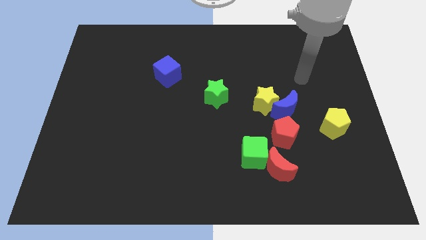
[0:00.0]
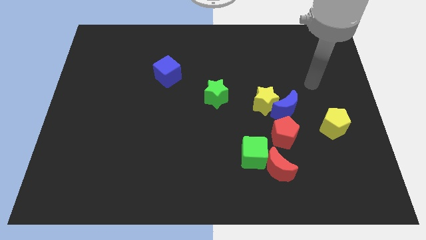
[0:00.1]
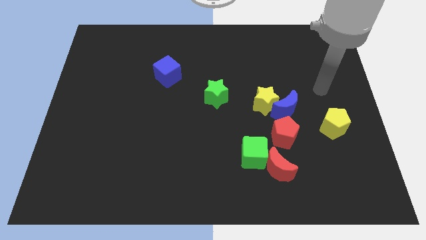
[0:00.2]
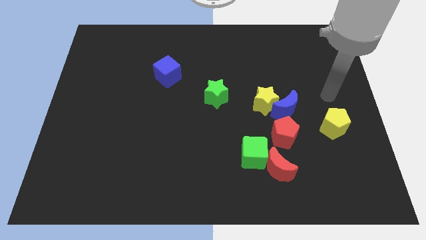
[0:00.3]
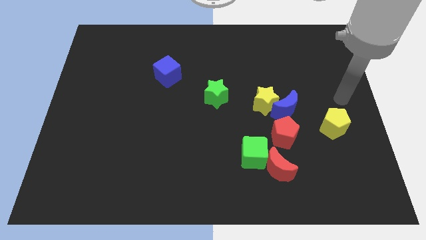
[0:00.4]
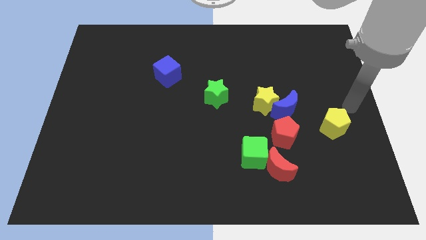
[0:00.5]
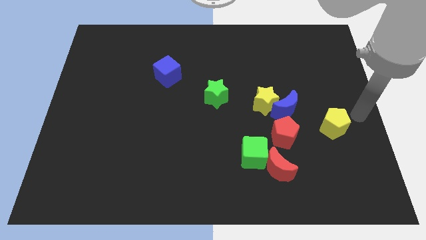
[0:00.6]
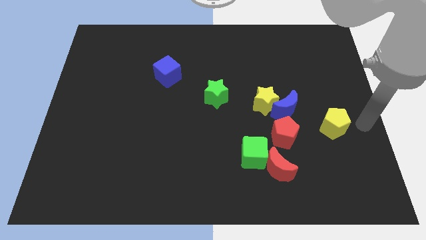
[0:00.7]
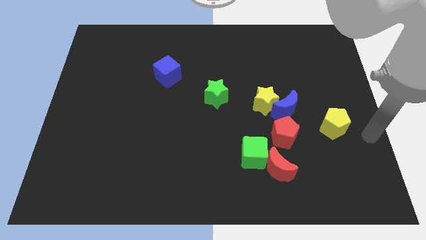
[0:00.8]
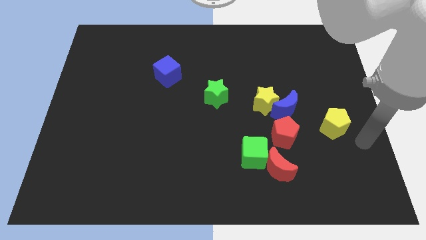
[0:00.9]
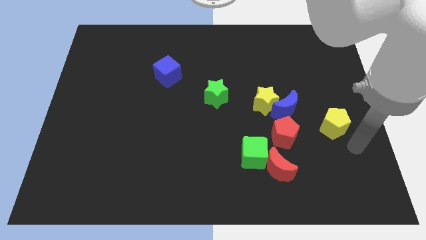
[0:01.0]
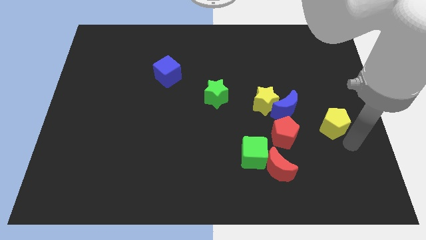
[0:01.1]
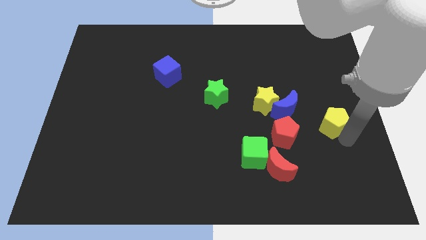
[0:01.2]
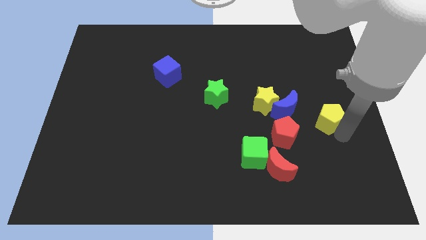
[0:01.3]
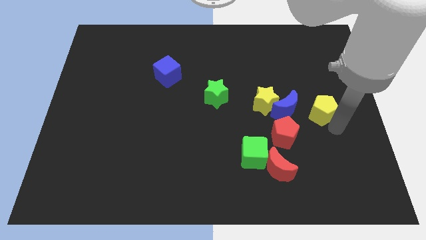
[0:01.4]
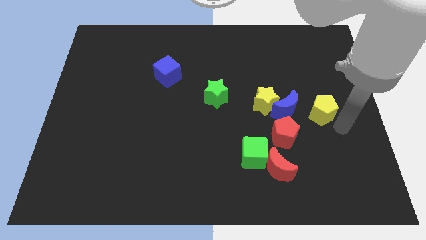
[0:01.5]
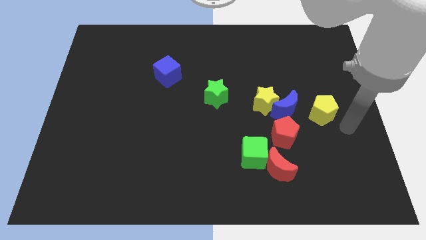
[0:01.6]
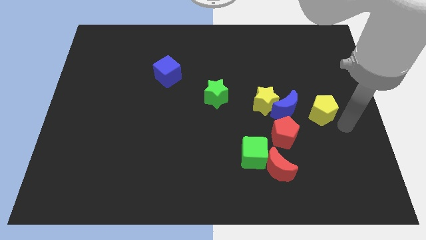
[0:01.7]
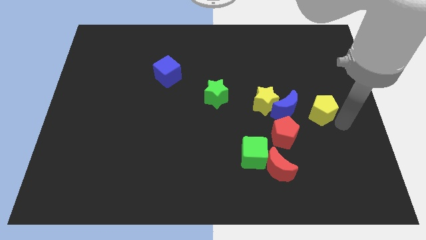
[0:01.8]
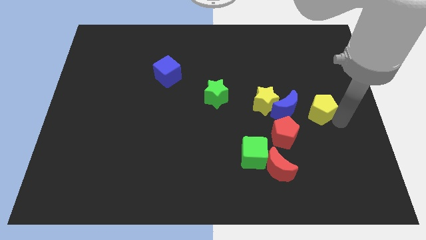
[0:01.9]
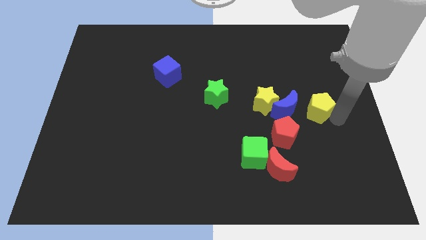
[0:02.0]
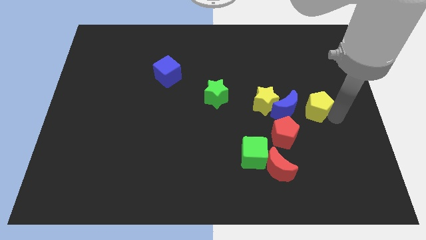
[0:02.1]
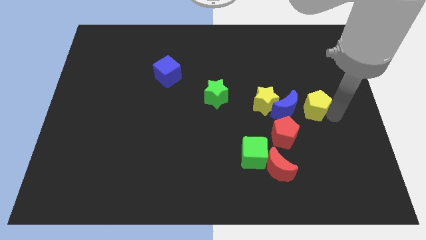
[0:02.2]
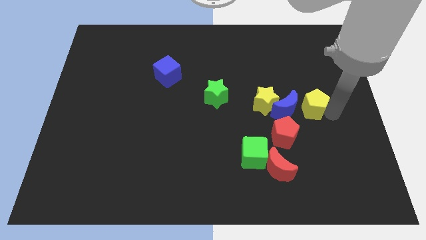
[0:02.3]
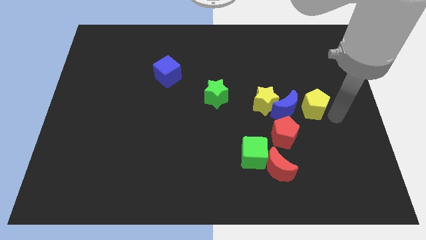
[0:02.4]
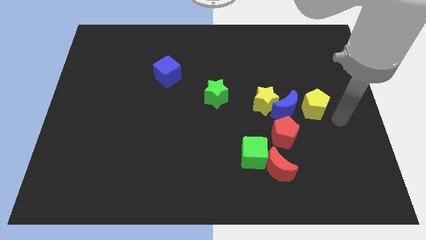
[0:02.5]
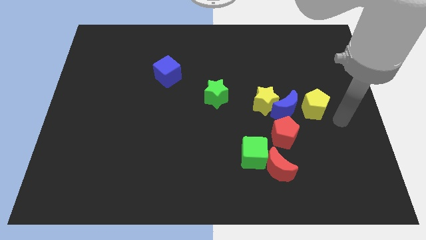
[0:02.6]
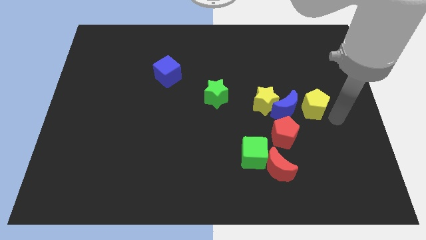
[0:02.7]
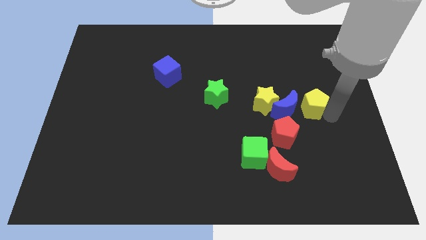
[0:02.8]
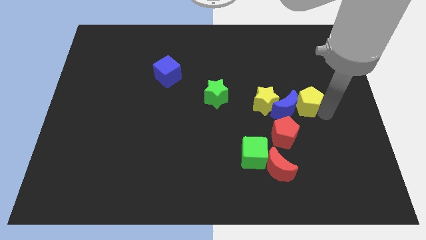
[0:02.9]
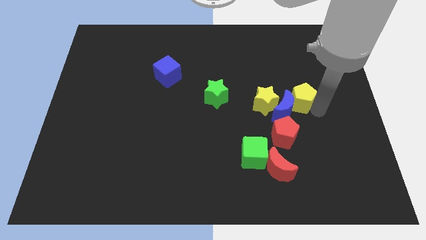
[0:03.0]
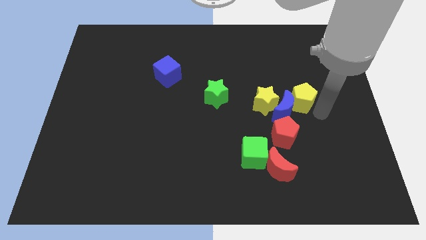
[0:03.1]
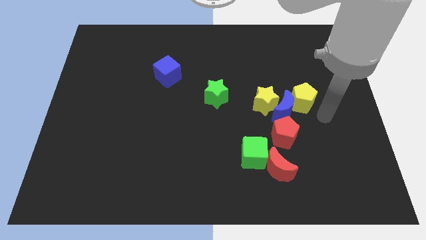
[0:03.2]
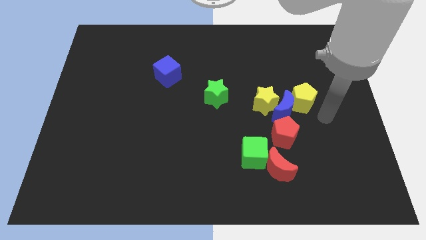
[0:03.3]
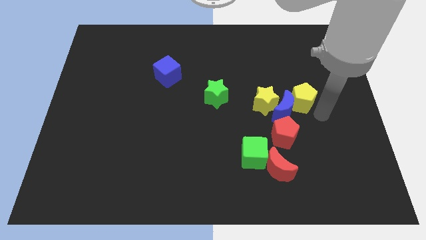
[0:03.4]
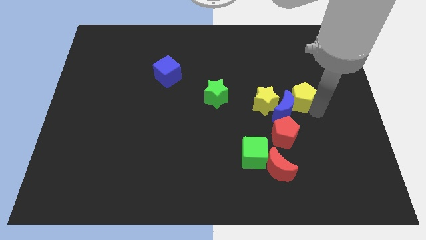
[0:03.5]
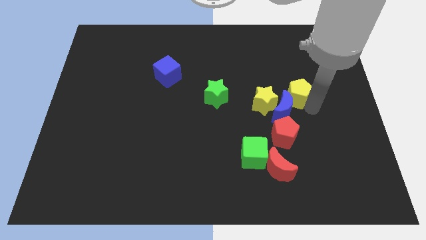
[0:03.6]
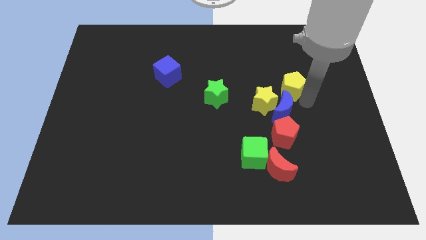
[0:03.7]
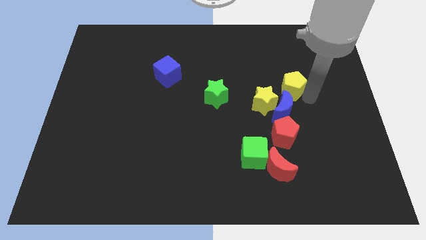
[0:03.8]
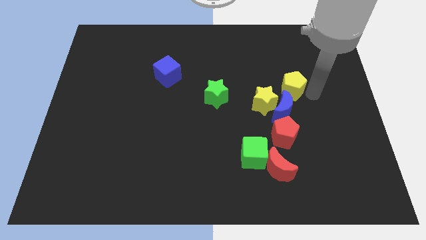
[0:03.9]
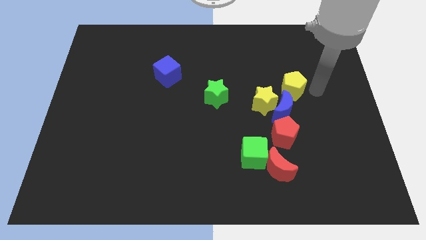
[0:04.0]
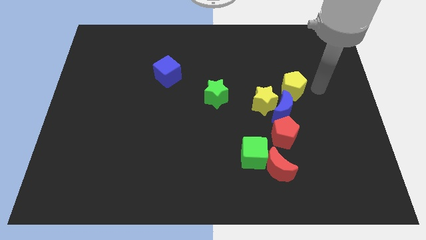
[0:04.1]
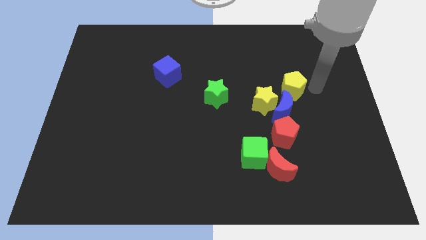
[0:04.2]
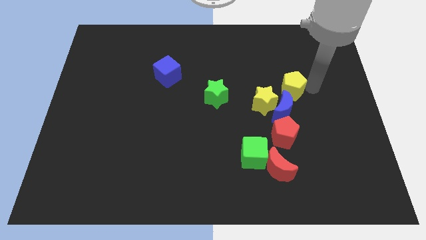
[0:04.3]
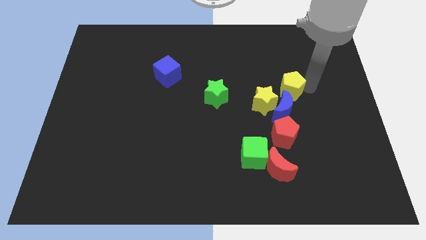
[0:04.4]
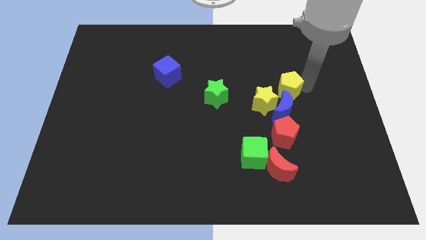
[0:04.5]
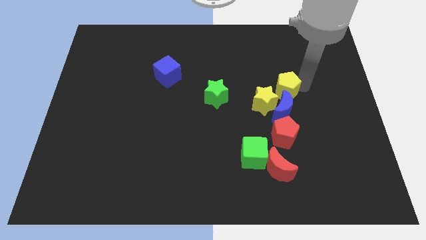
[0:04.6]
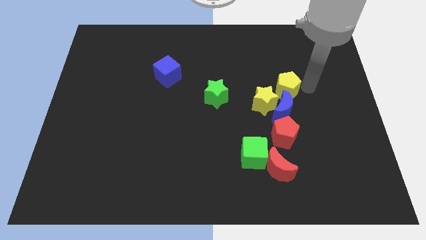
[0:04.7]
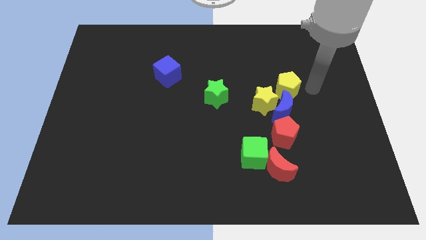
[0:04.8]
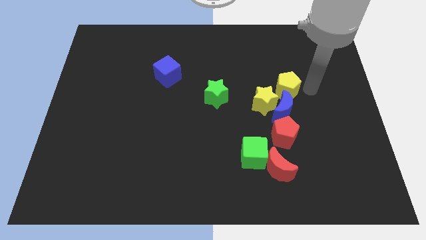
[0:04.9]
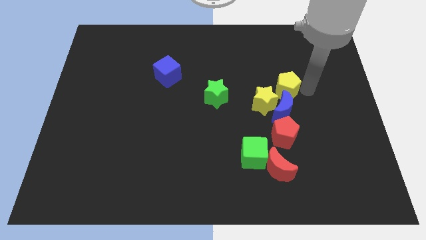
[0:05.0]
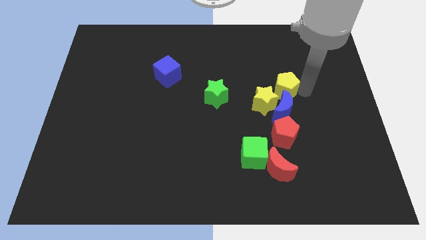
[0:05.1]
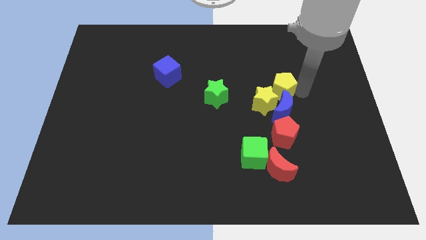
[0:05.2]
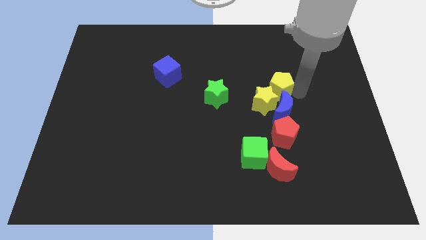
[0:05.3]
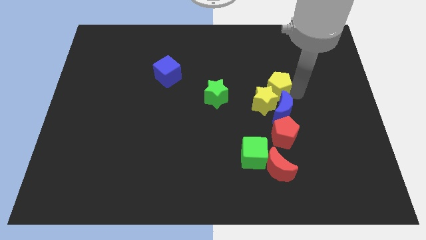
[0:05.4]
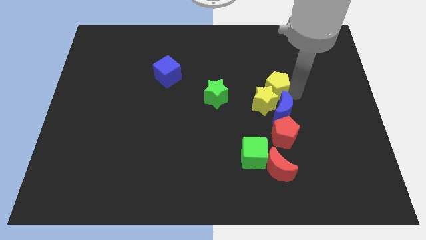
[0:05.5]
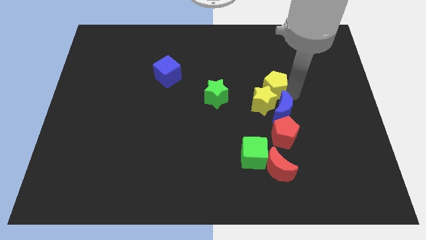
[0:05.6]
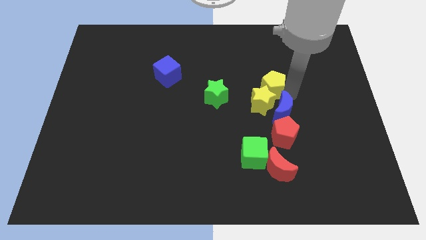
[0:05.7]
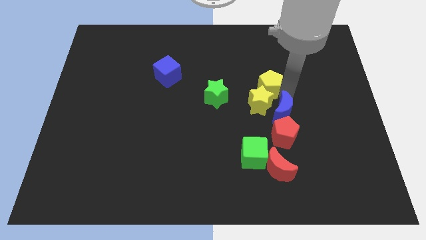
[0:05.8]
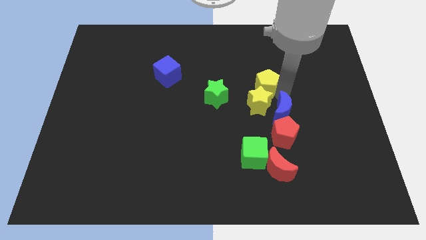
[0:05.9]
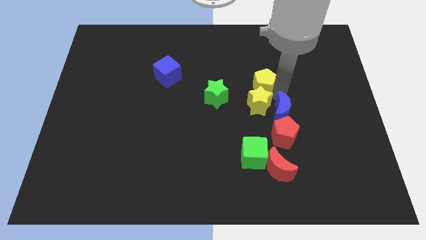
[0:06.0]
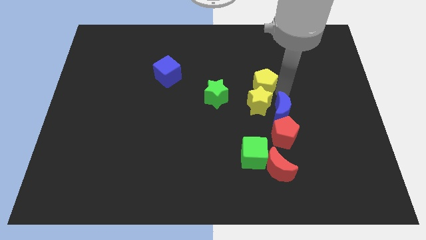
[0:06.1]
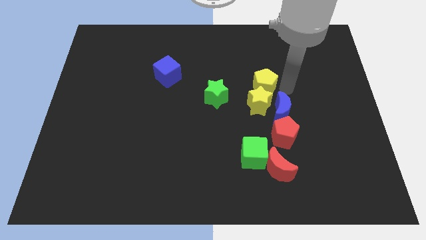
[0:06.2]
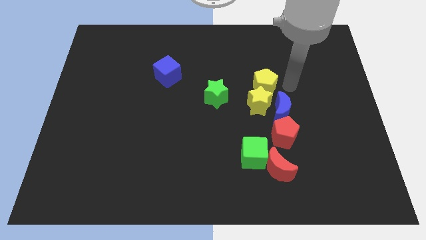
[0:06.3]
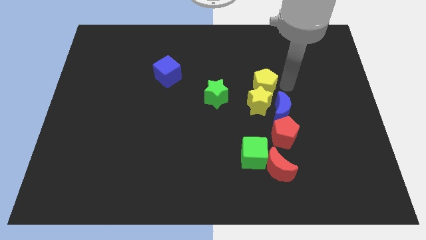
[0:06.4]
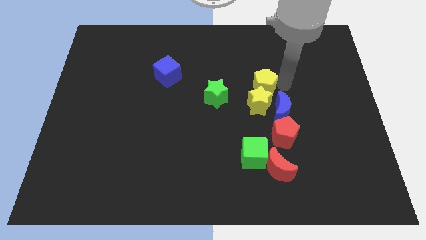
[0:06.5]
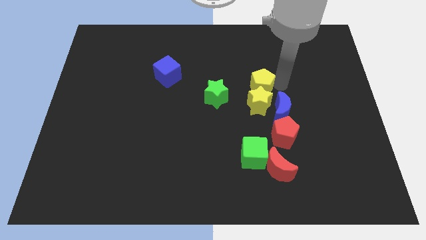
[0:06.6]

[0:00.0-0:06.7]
push the yellow pentagon to the top left side of the yellow star

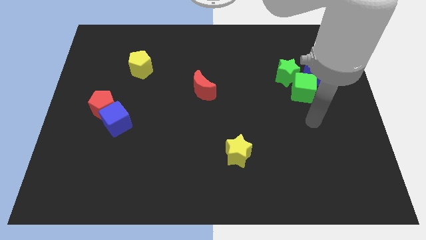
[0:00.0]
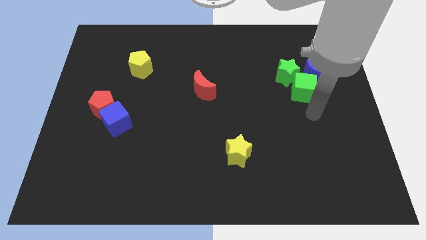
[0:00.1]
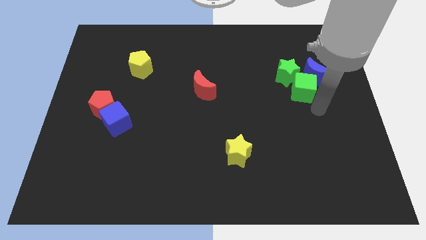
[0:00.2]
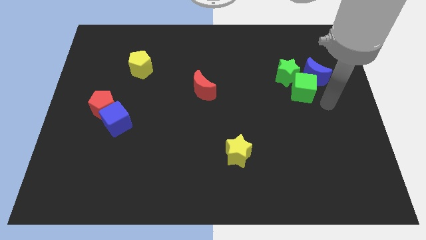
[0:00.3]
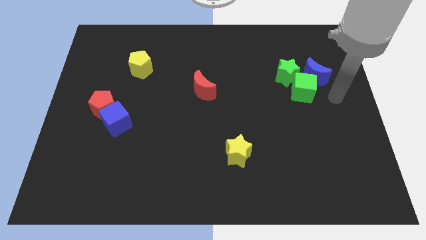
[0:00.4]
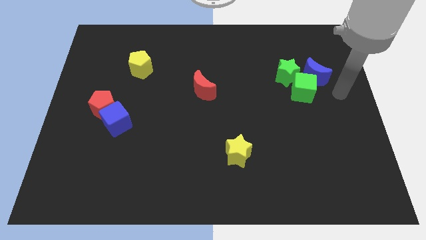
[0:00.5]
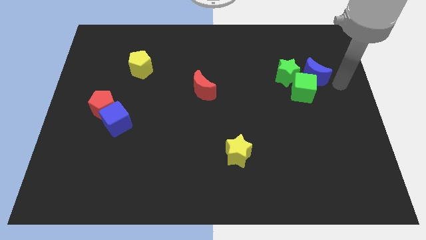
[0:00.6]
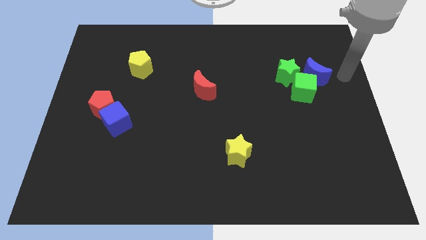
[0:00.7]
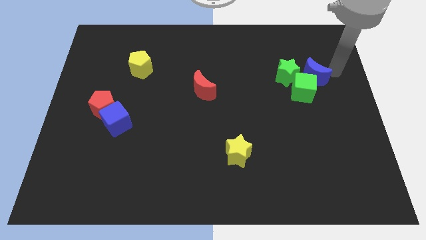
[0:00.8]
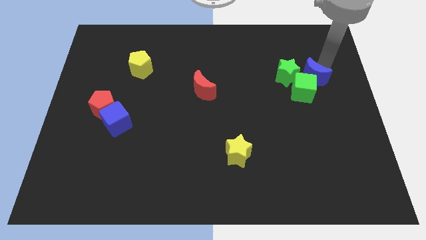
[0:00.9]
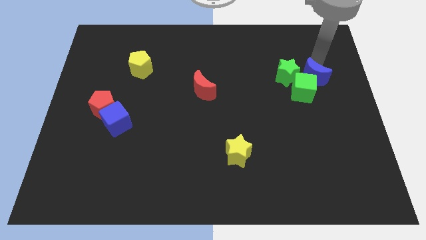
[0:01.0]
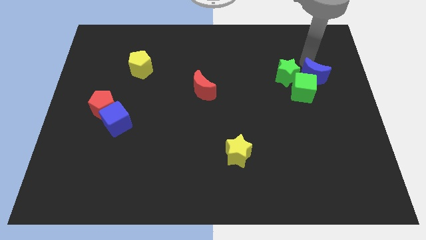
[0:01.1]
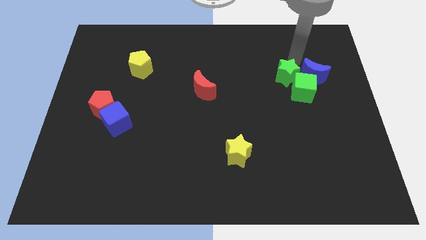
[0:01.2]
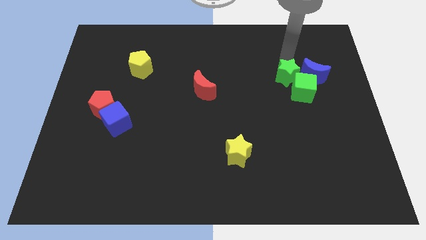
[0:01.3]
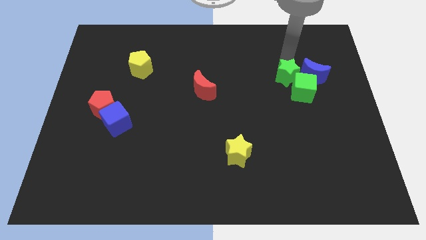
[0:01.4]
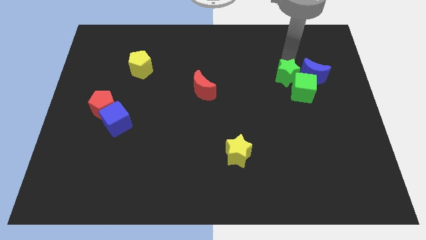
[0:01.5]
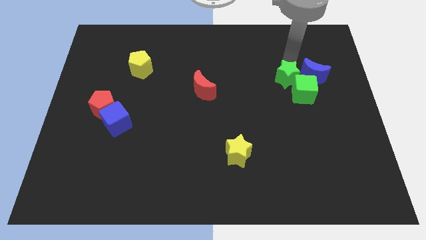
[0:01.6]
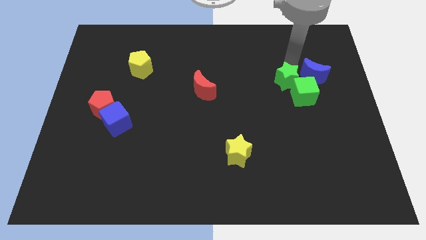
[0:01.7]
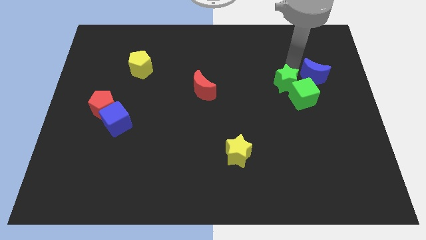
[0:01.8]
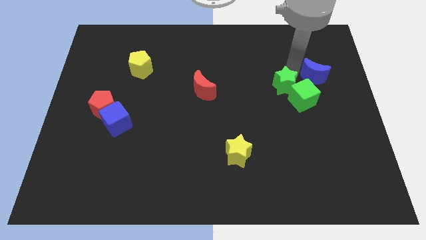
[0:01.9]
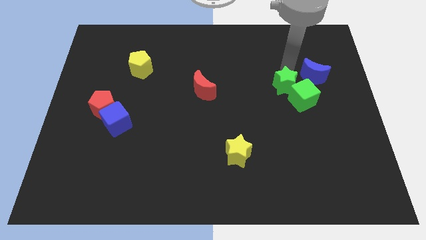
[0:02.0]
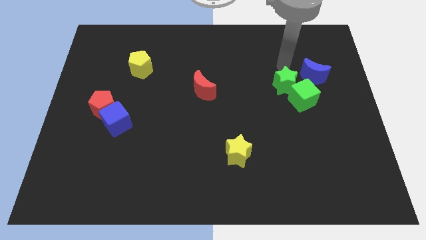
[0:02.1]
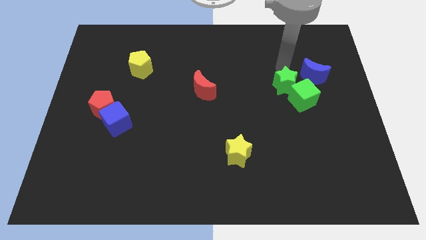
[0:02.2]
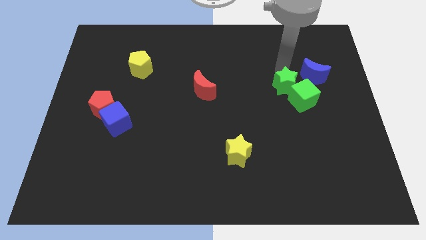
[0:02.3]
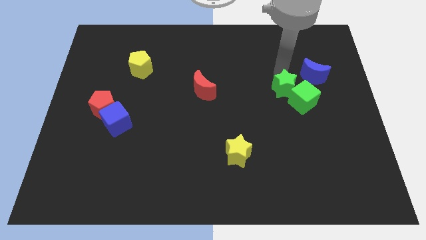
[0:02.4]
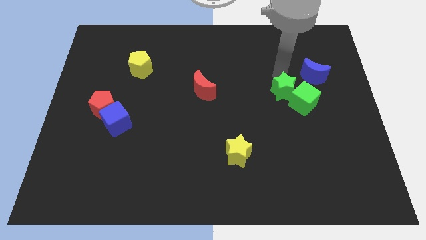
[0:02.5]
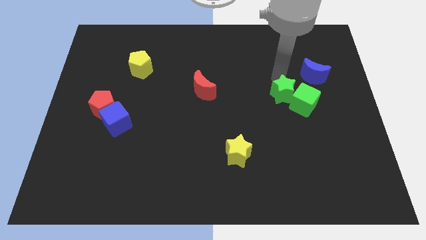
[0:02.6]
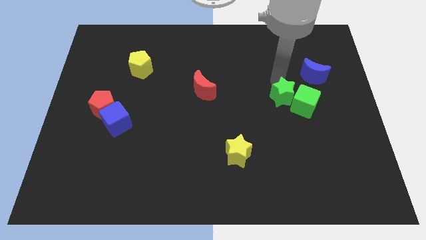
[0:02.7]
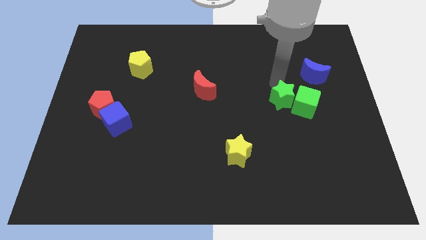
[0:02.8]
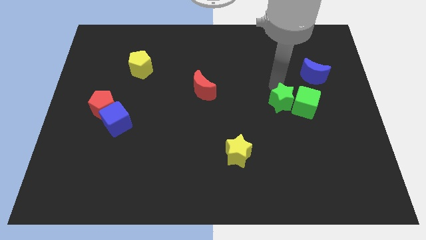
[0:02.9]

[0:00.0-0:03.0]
push the green star to the bottom left of the green cube
